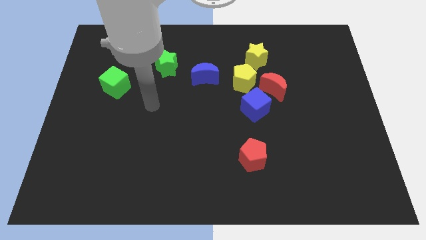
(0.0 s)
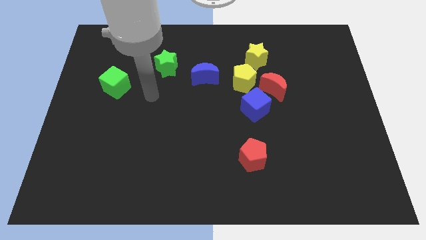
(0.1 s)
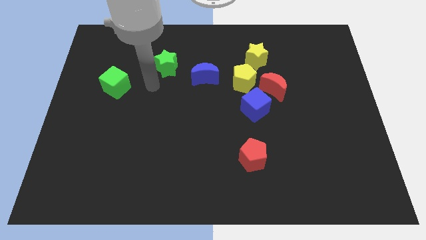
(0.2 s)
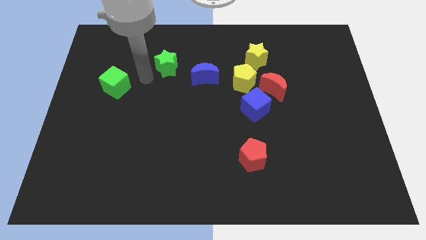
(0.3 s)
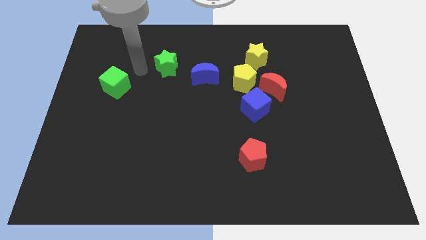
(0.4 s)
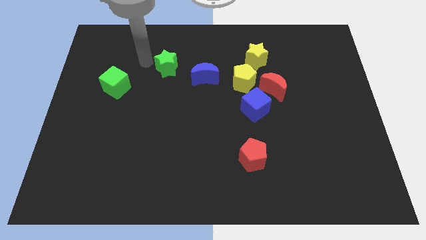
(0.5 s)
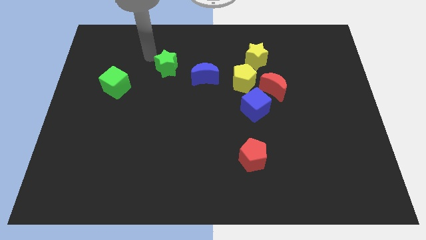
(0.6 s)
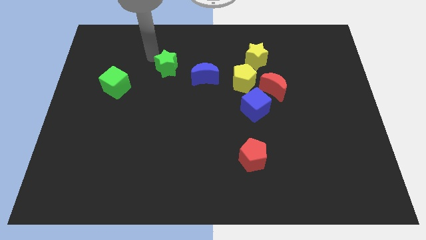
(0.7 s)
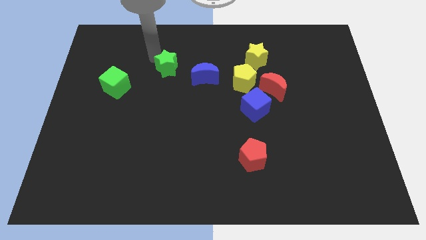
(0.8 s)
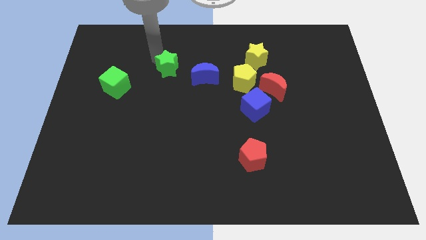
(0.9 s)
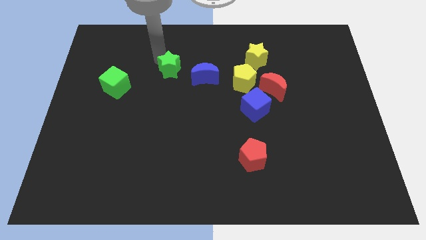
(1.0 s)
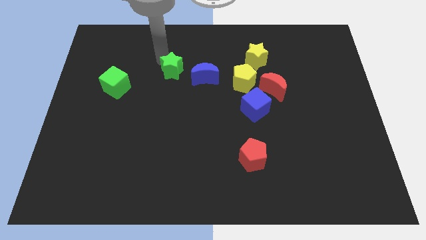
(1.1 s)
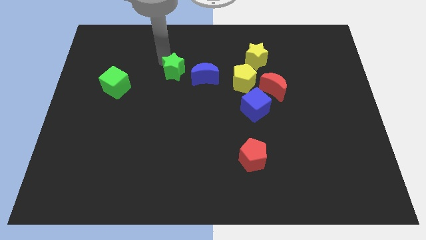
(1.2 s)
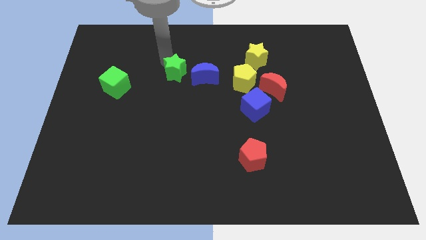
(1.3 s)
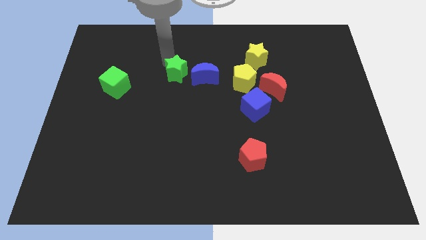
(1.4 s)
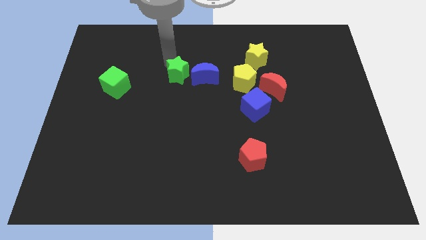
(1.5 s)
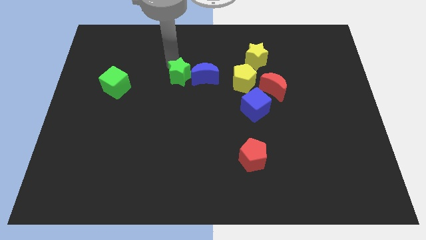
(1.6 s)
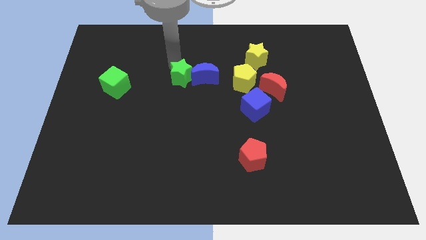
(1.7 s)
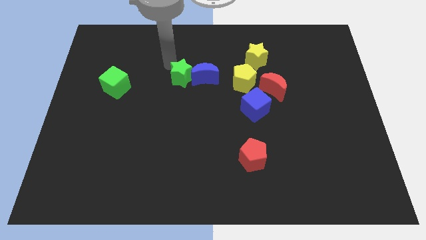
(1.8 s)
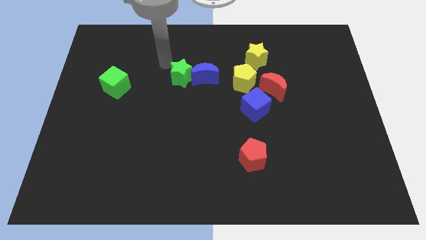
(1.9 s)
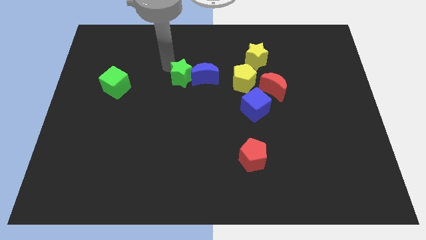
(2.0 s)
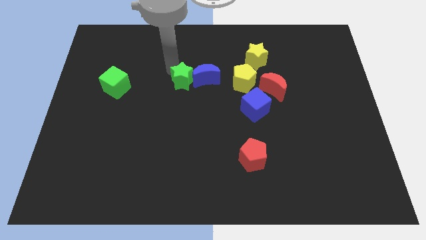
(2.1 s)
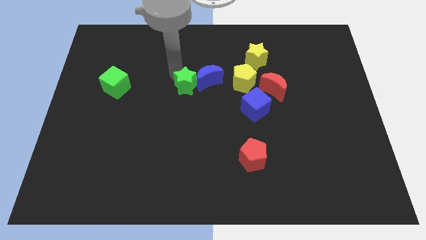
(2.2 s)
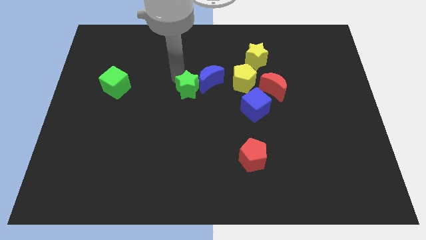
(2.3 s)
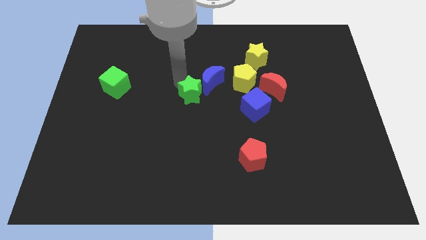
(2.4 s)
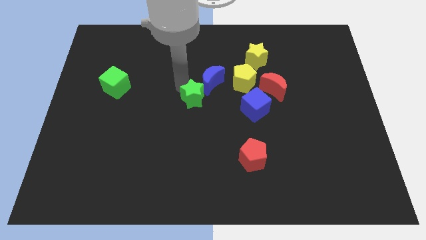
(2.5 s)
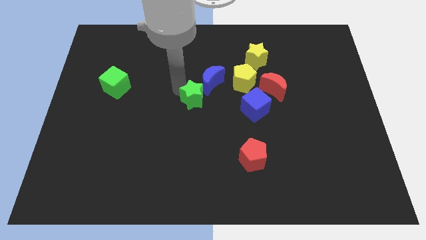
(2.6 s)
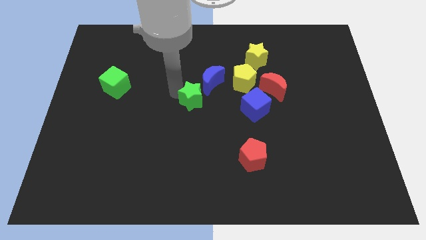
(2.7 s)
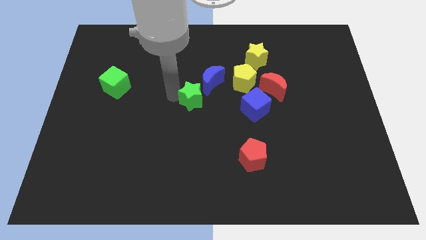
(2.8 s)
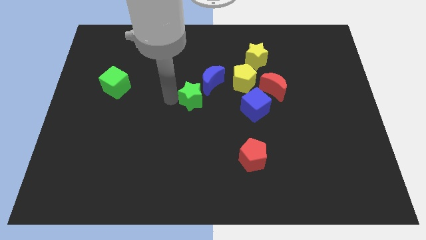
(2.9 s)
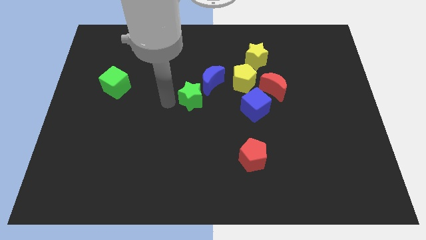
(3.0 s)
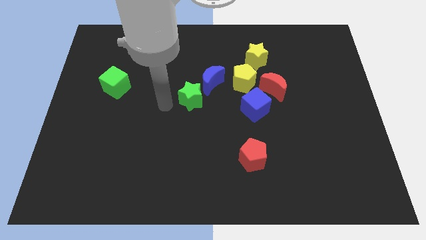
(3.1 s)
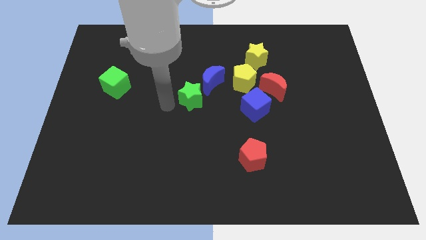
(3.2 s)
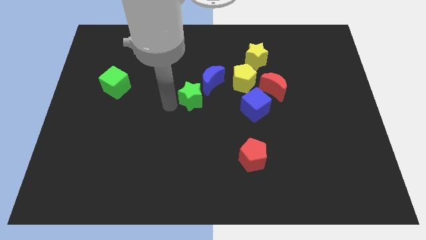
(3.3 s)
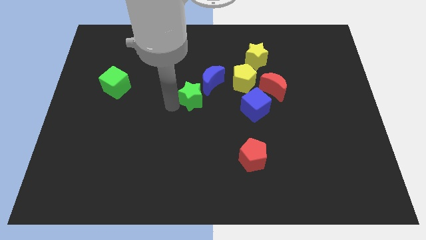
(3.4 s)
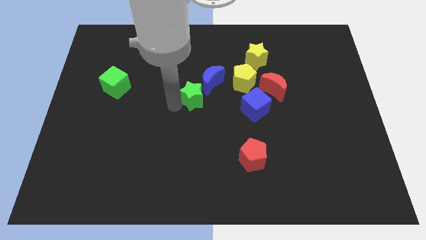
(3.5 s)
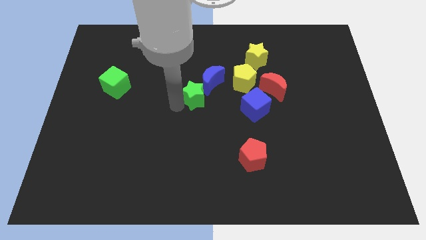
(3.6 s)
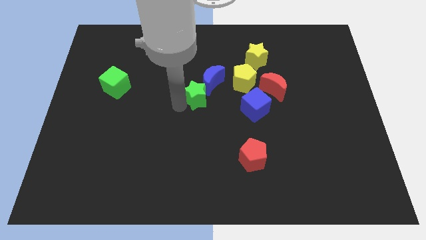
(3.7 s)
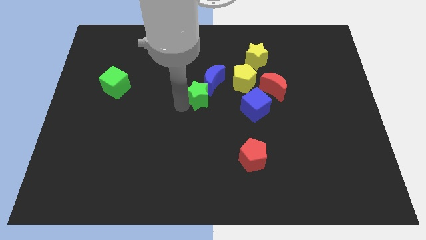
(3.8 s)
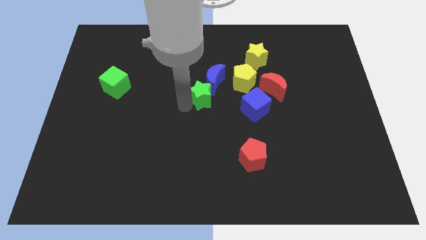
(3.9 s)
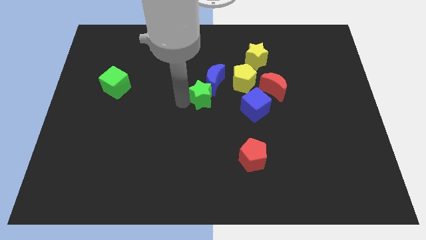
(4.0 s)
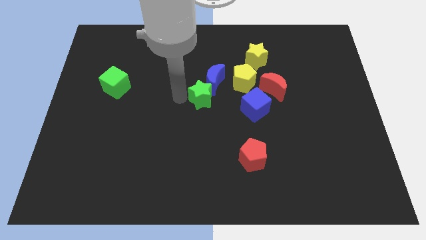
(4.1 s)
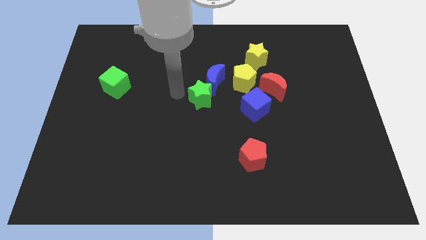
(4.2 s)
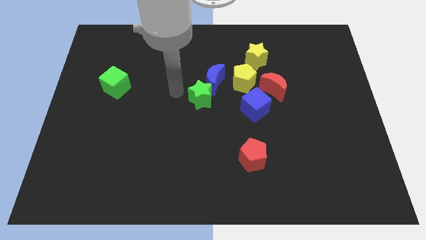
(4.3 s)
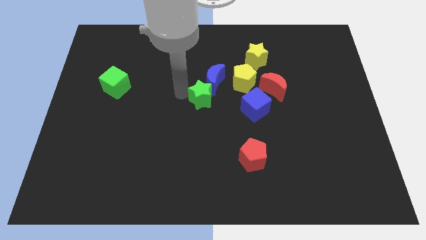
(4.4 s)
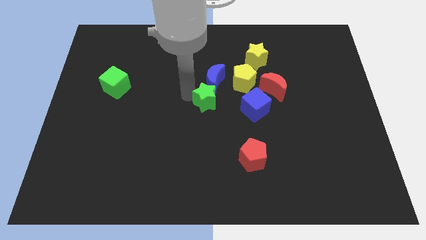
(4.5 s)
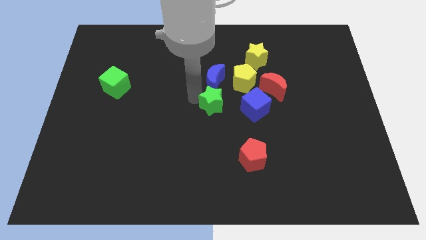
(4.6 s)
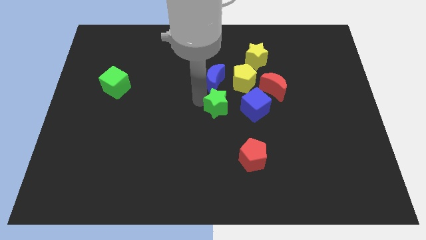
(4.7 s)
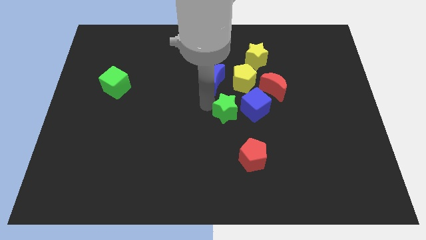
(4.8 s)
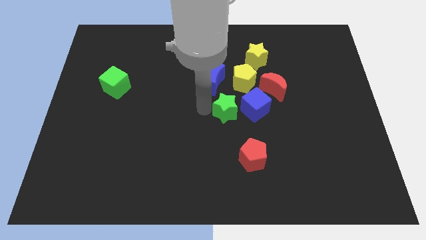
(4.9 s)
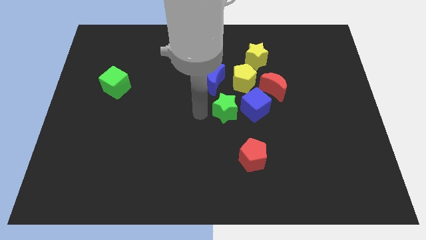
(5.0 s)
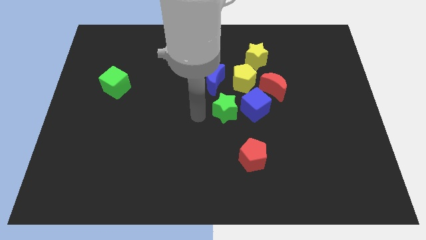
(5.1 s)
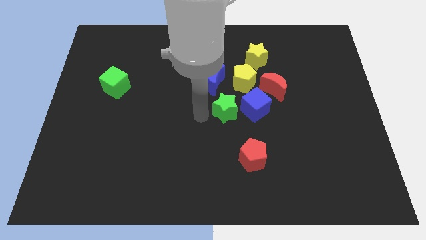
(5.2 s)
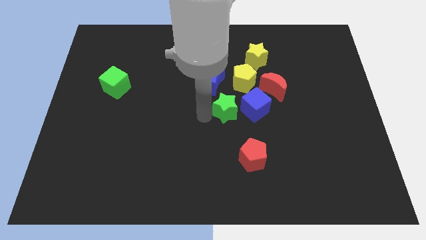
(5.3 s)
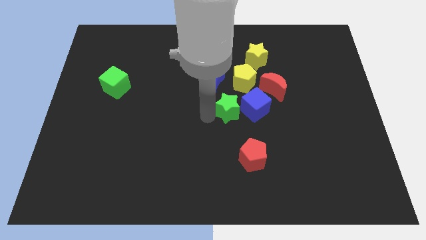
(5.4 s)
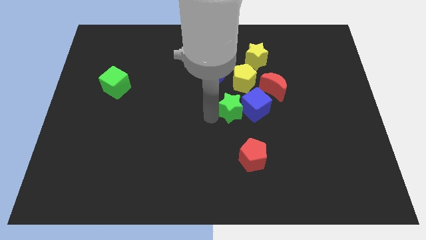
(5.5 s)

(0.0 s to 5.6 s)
move the green star next to the blue cube

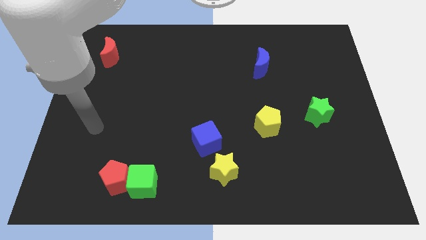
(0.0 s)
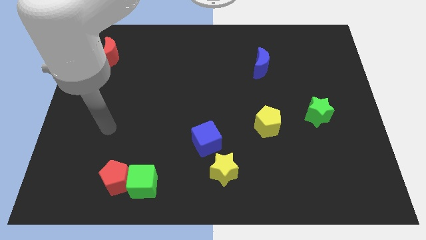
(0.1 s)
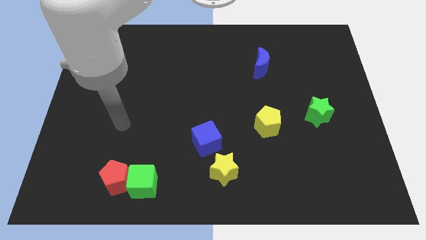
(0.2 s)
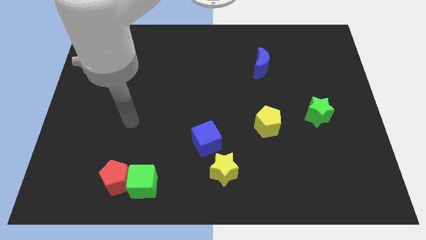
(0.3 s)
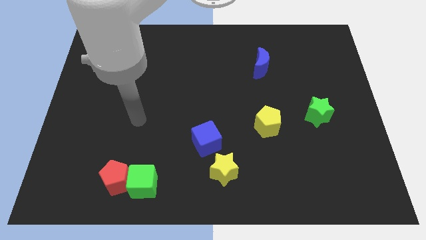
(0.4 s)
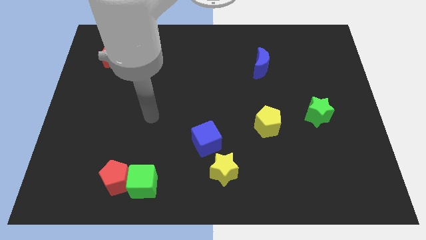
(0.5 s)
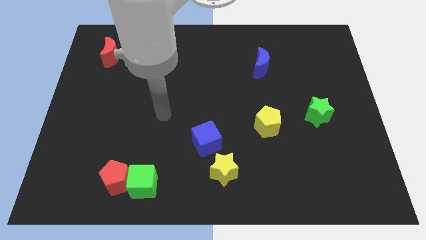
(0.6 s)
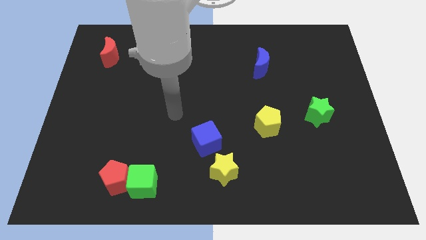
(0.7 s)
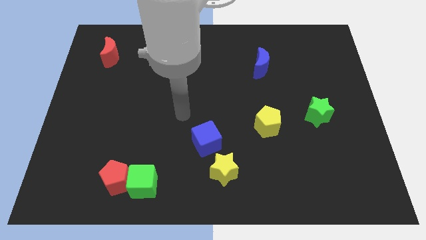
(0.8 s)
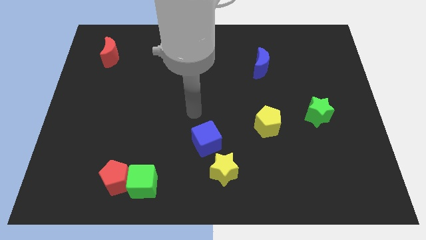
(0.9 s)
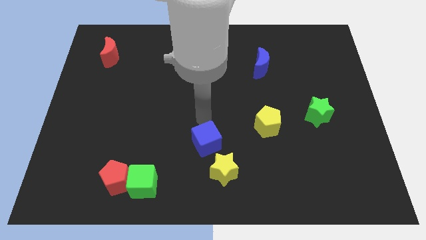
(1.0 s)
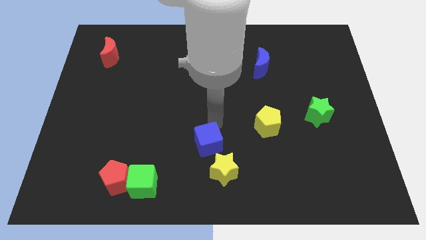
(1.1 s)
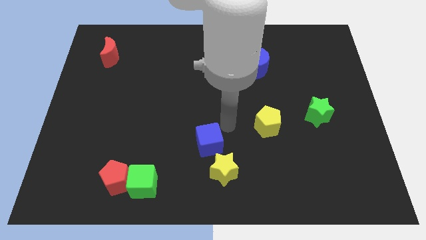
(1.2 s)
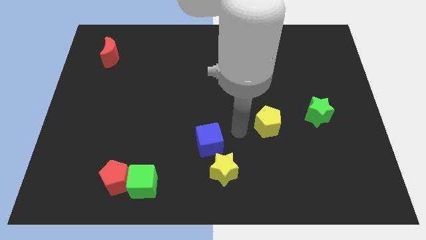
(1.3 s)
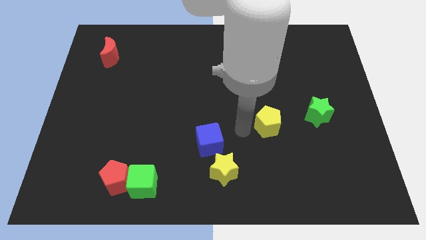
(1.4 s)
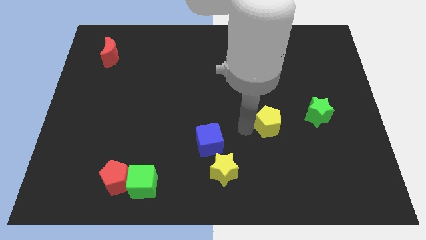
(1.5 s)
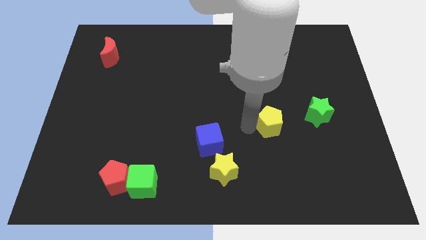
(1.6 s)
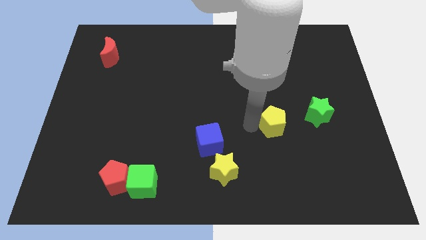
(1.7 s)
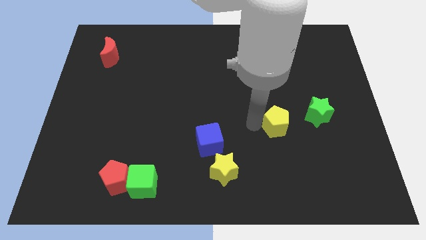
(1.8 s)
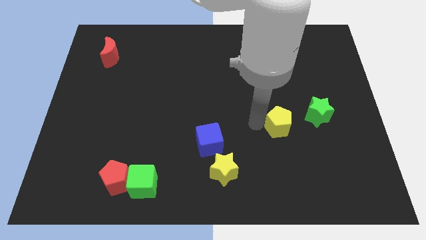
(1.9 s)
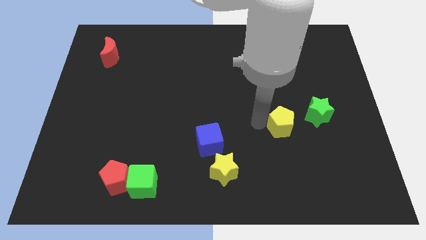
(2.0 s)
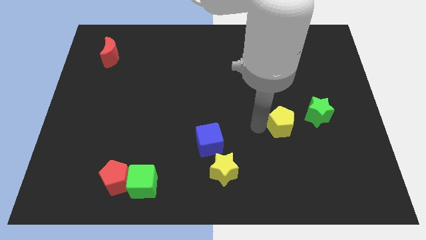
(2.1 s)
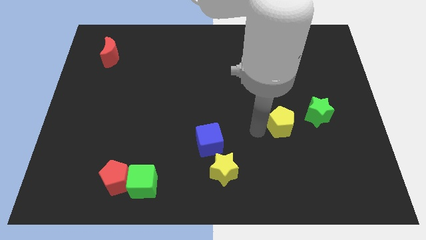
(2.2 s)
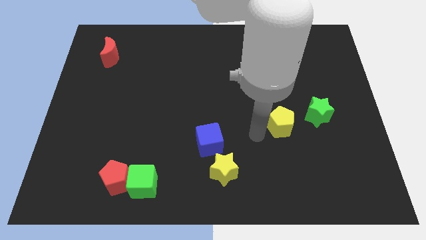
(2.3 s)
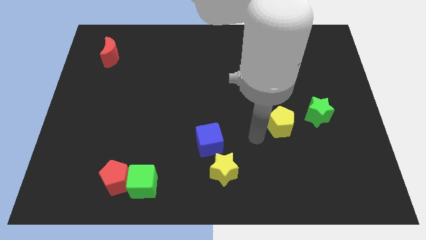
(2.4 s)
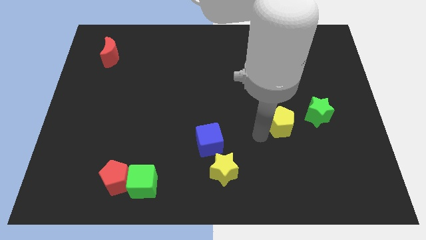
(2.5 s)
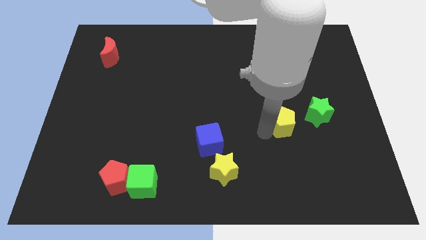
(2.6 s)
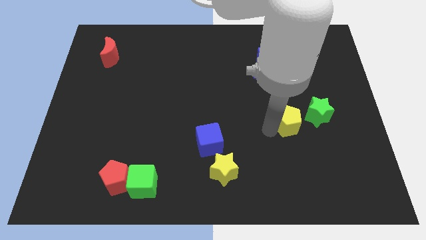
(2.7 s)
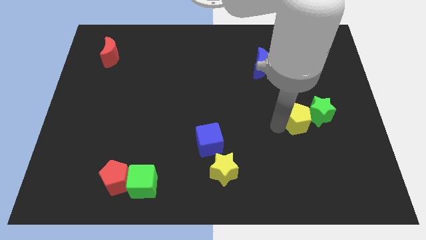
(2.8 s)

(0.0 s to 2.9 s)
slide the yellow pentagon to the green star
